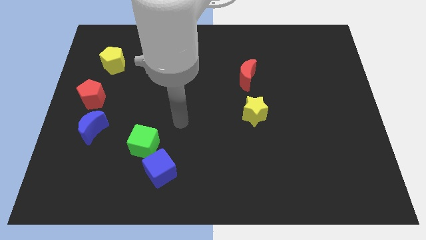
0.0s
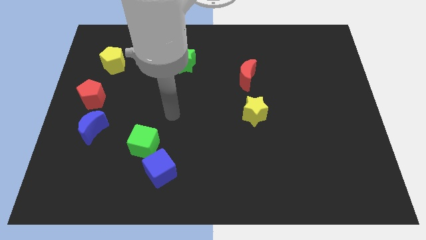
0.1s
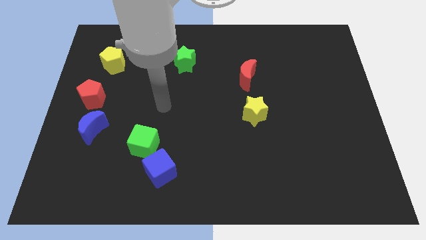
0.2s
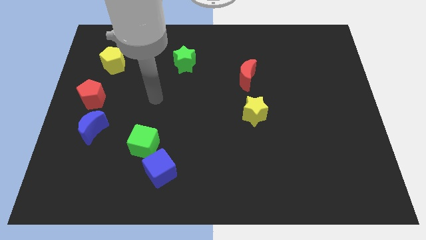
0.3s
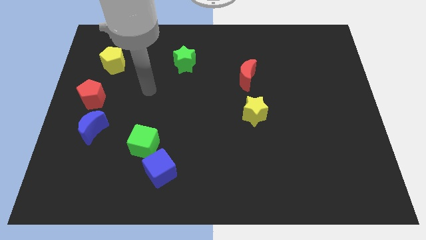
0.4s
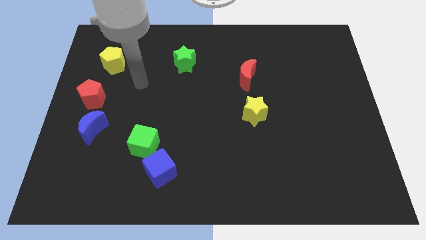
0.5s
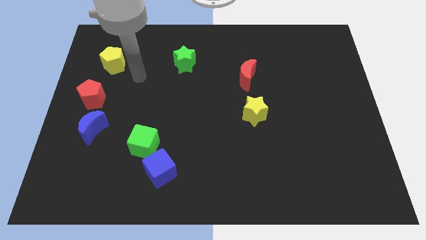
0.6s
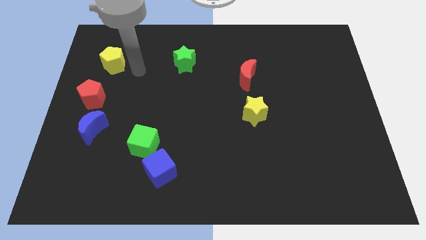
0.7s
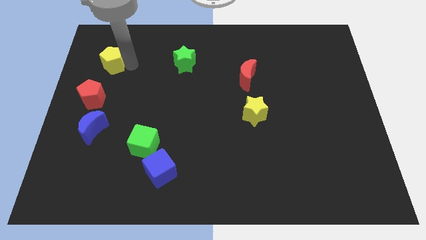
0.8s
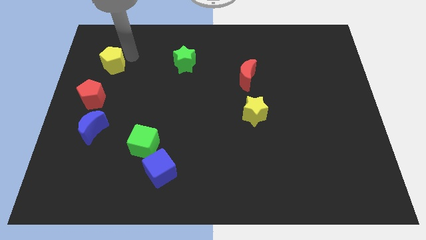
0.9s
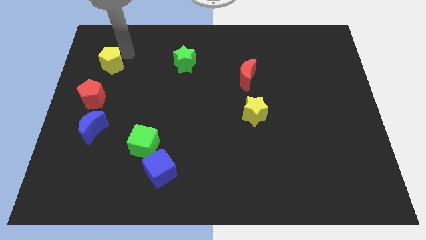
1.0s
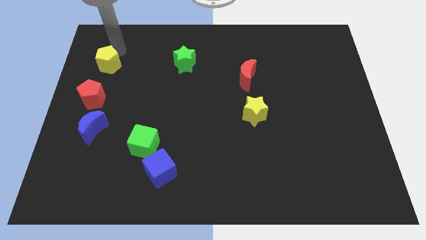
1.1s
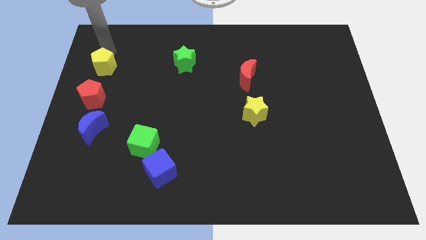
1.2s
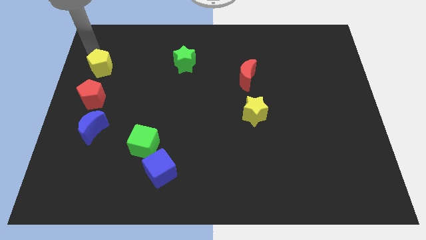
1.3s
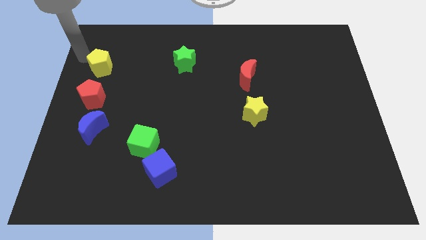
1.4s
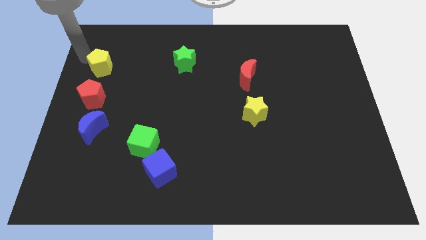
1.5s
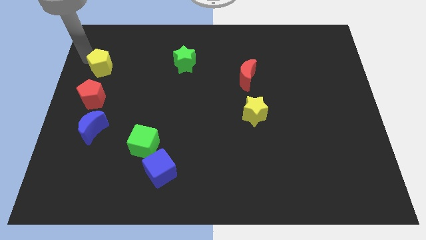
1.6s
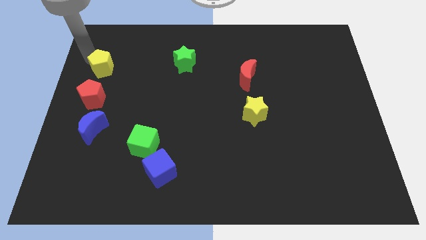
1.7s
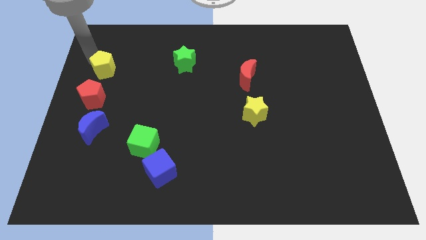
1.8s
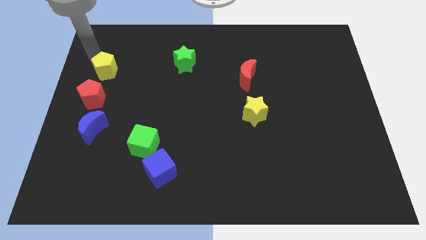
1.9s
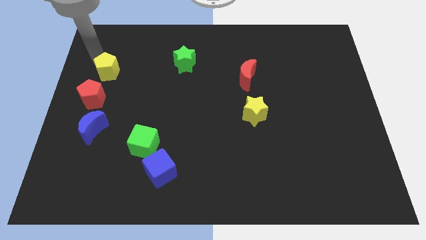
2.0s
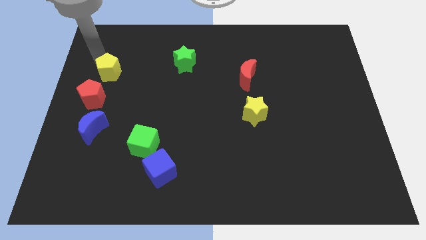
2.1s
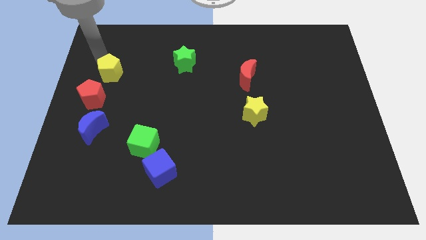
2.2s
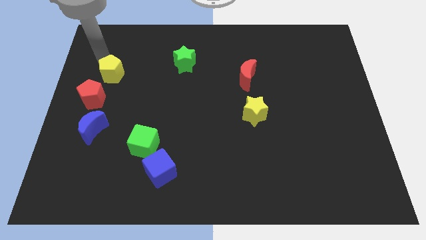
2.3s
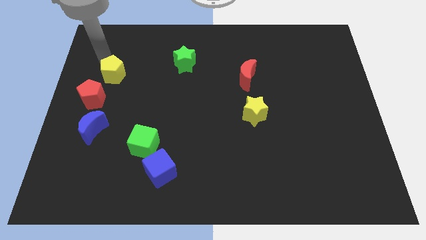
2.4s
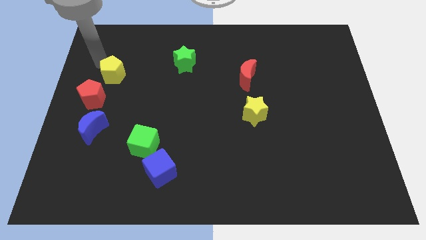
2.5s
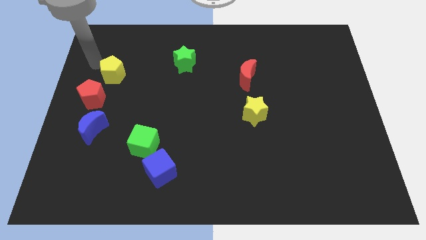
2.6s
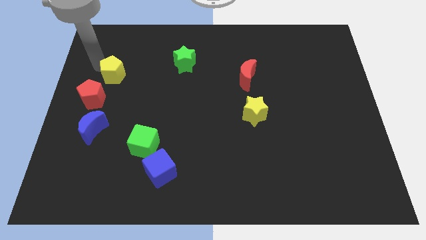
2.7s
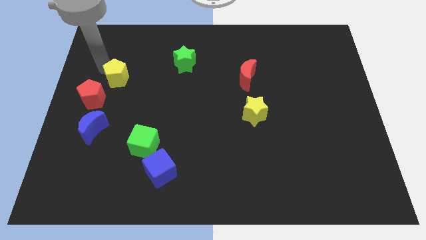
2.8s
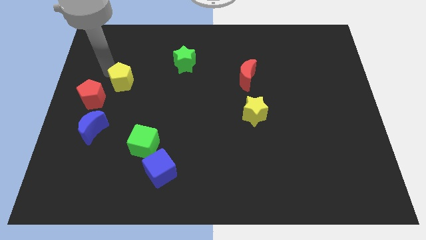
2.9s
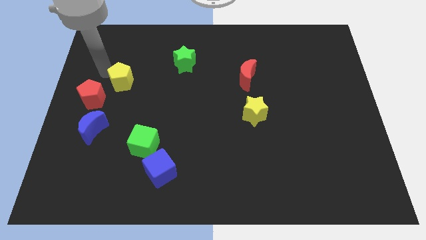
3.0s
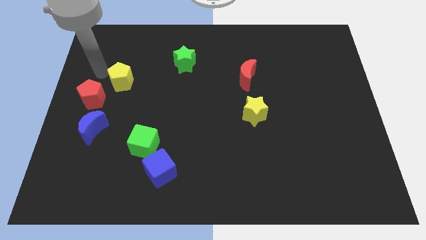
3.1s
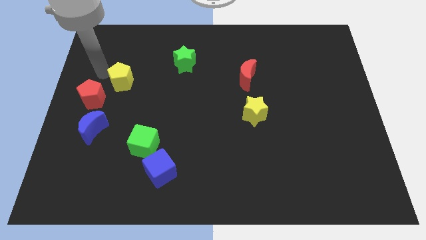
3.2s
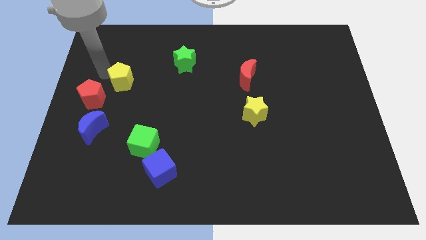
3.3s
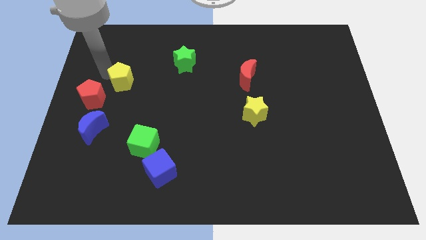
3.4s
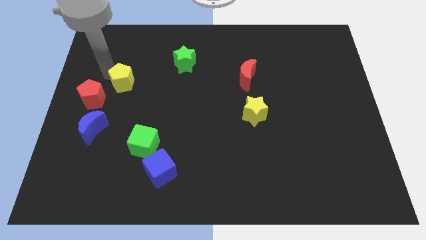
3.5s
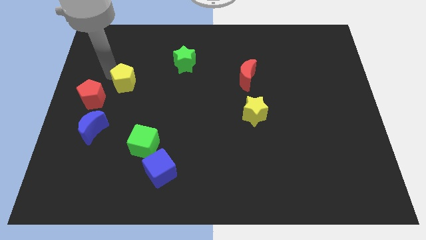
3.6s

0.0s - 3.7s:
move the yellow pentagon diagonally down and right slightly

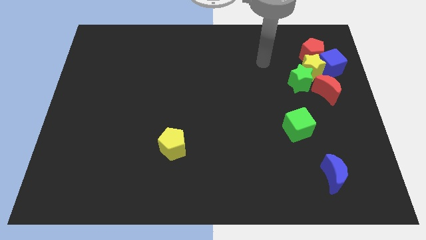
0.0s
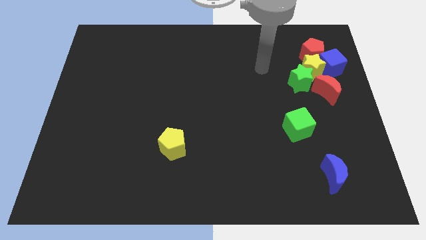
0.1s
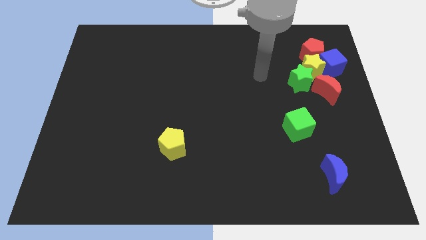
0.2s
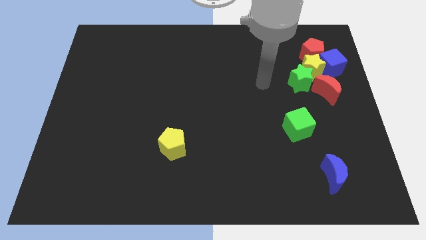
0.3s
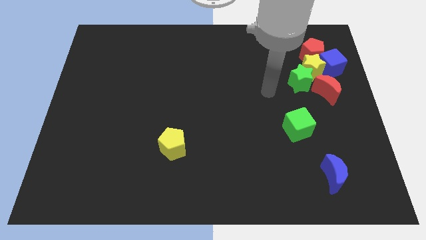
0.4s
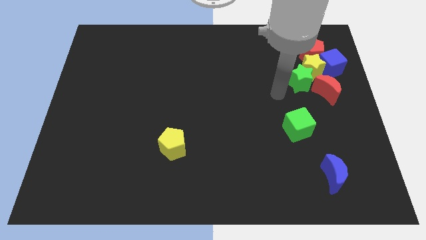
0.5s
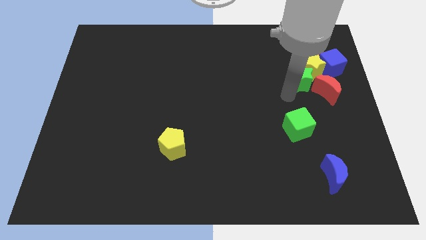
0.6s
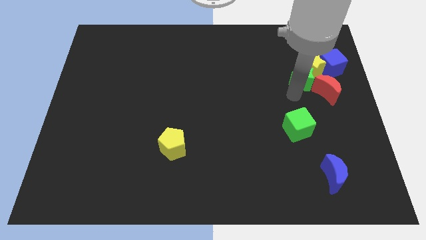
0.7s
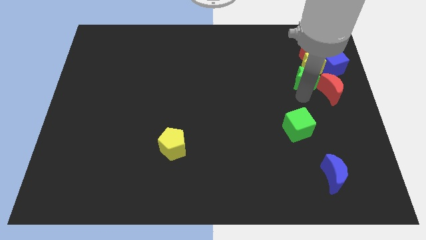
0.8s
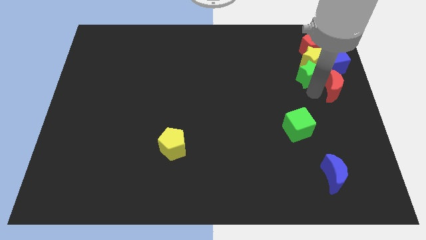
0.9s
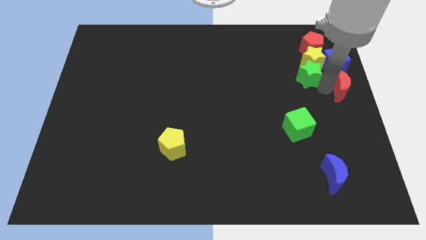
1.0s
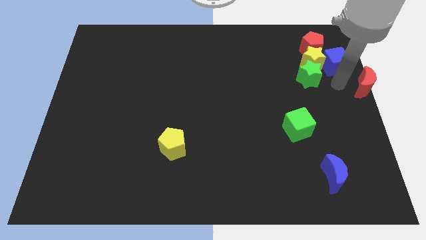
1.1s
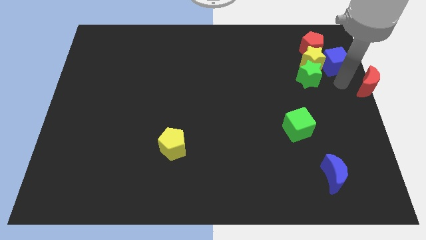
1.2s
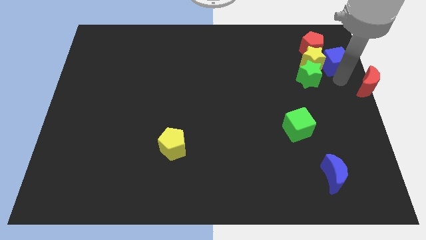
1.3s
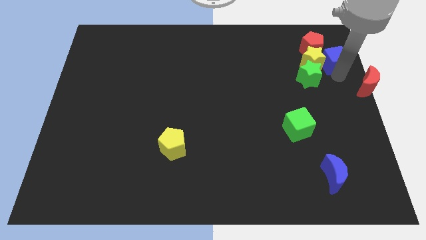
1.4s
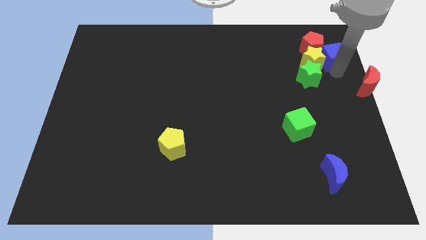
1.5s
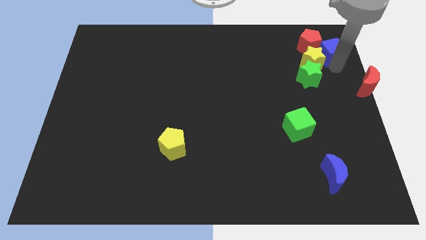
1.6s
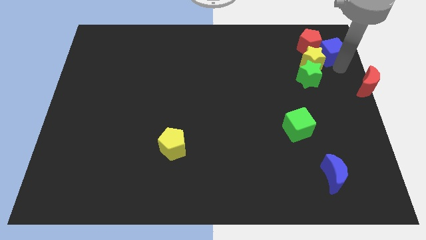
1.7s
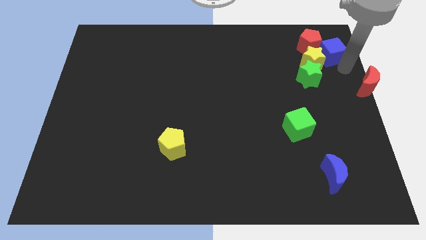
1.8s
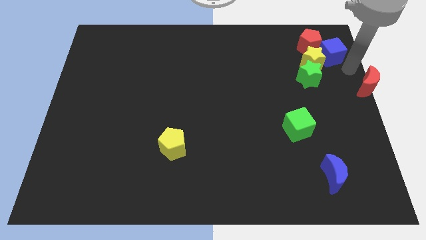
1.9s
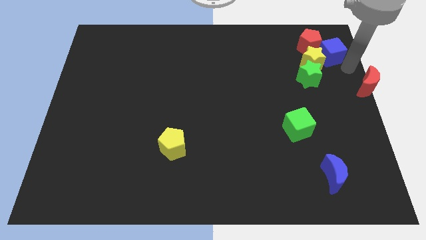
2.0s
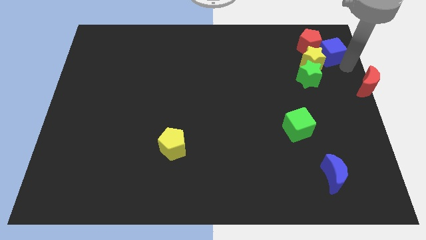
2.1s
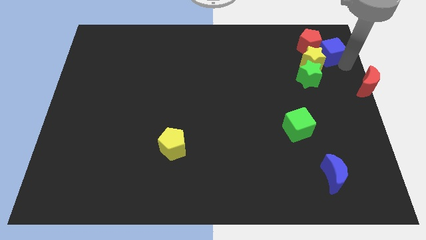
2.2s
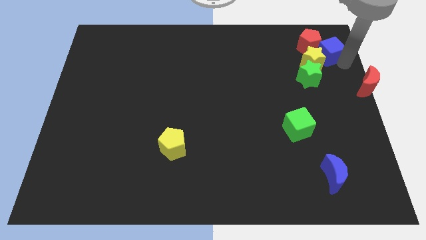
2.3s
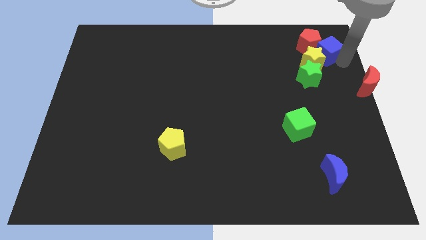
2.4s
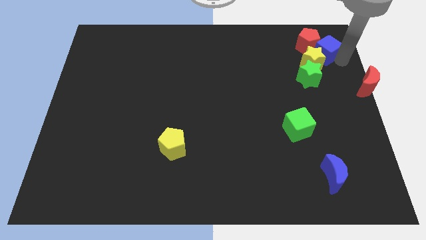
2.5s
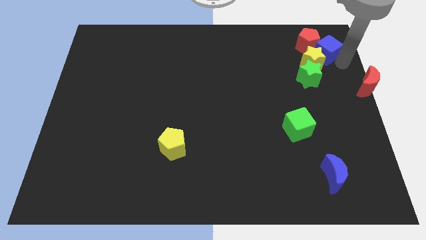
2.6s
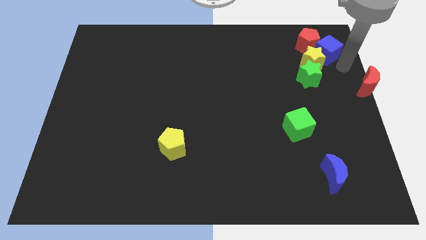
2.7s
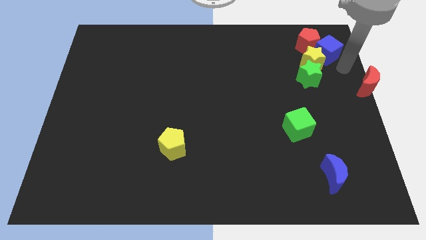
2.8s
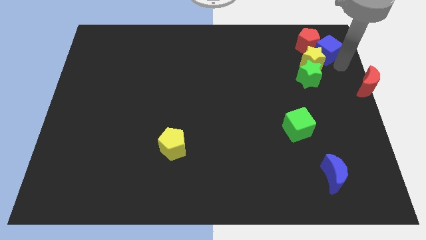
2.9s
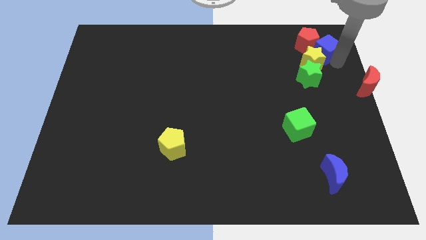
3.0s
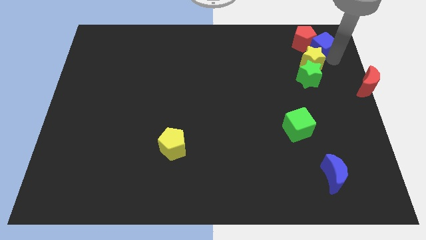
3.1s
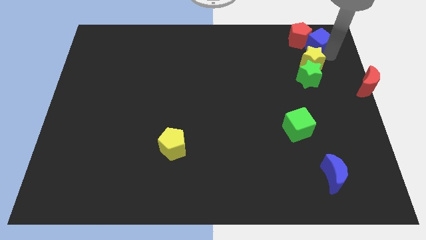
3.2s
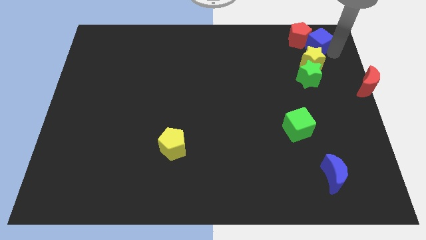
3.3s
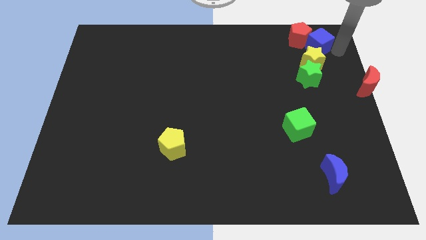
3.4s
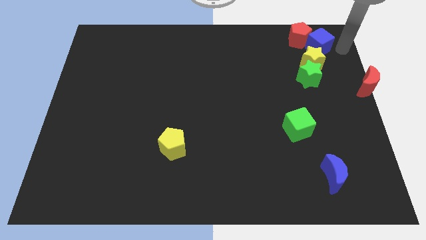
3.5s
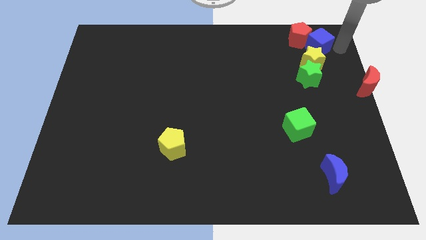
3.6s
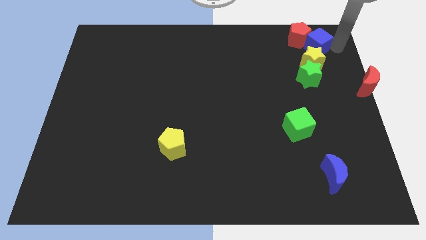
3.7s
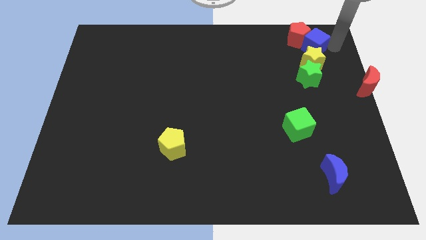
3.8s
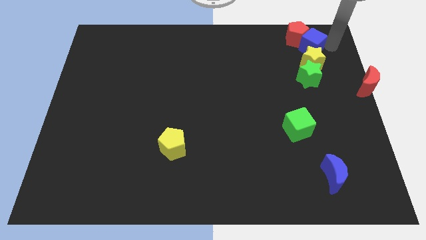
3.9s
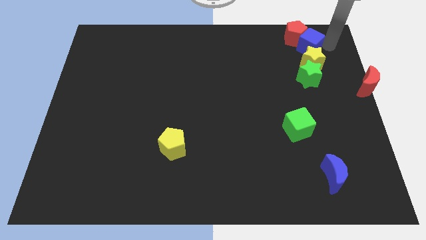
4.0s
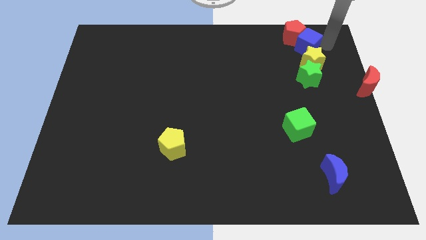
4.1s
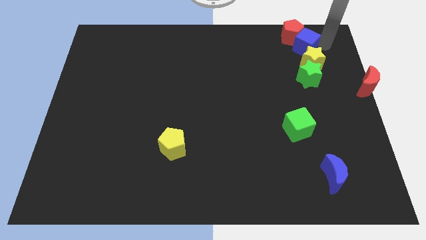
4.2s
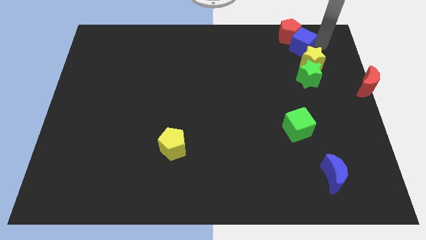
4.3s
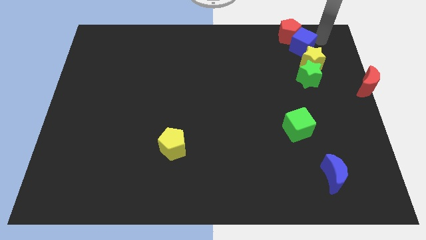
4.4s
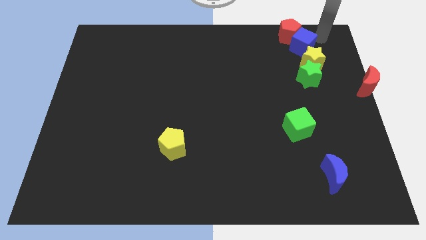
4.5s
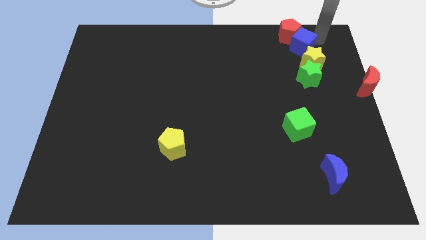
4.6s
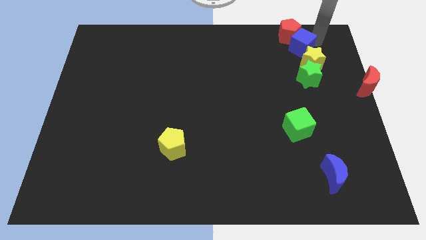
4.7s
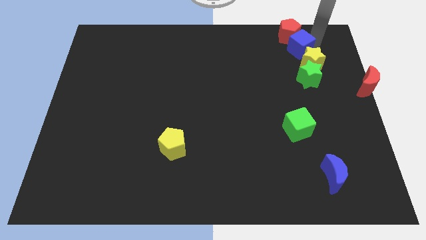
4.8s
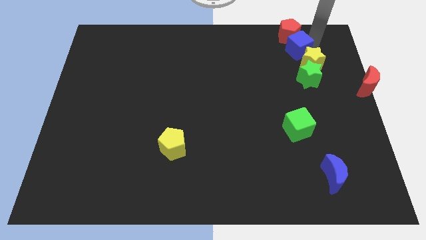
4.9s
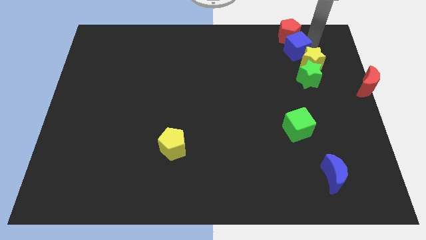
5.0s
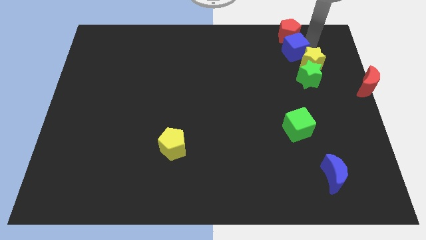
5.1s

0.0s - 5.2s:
push the blue cube to the left a bit
